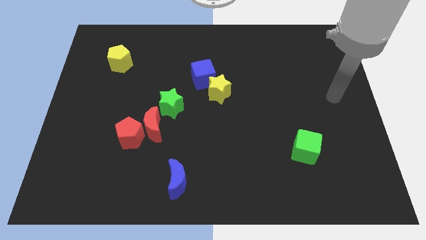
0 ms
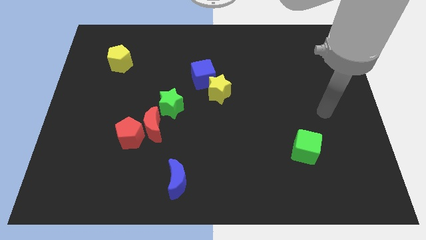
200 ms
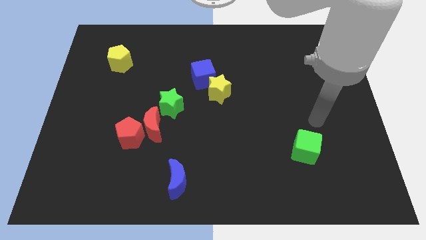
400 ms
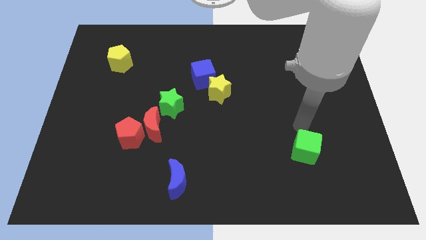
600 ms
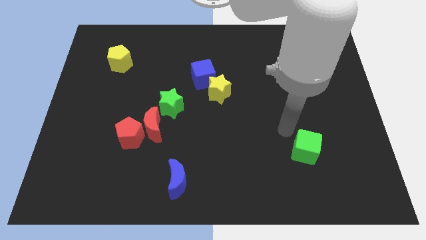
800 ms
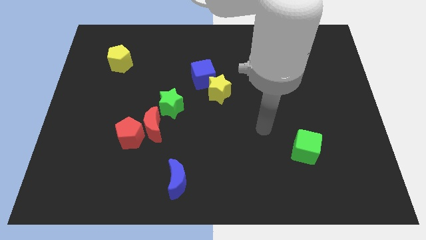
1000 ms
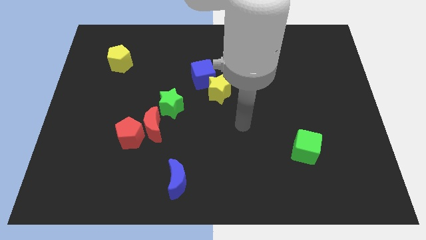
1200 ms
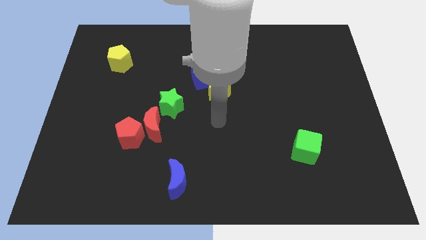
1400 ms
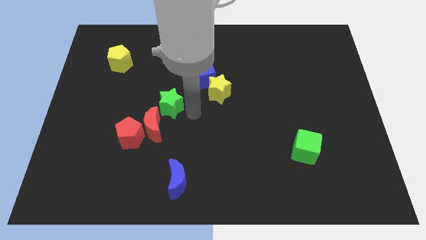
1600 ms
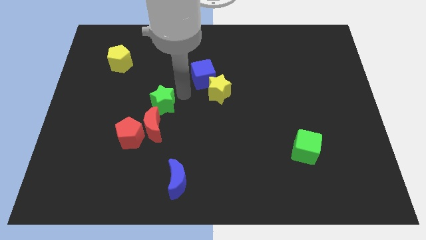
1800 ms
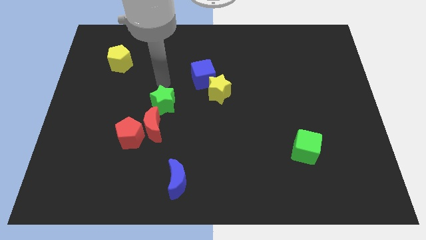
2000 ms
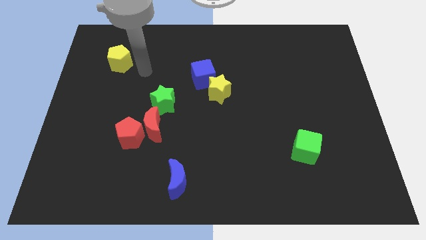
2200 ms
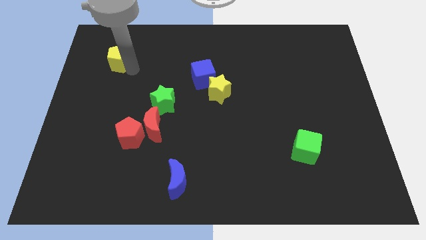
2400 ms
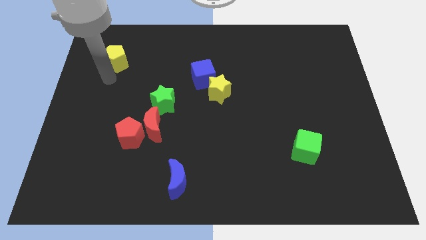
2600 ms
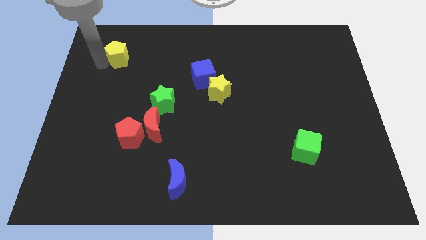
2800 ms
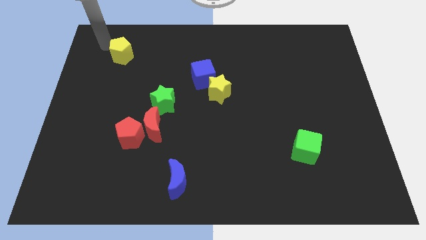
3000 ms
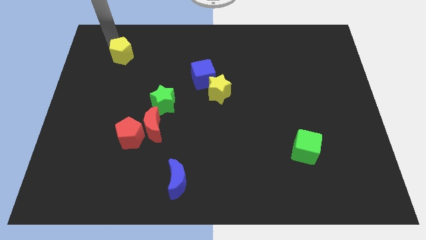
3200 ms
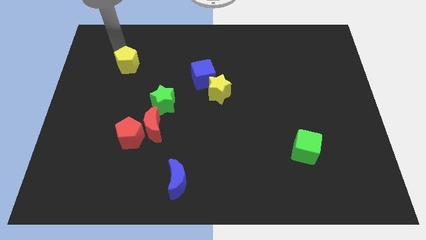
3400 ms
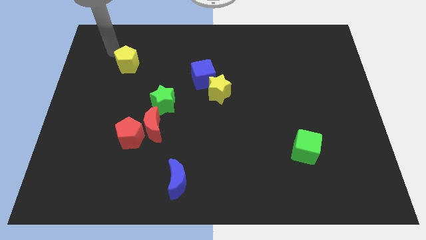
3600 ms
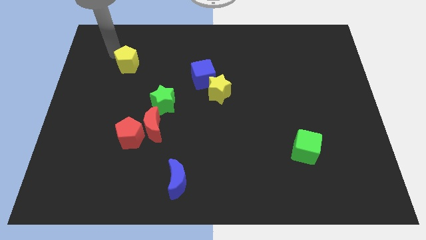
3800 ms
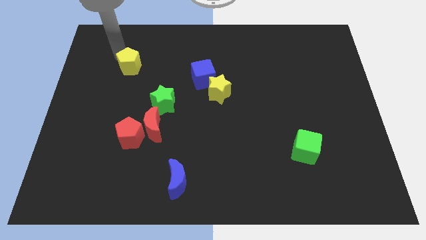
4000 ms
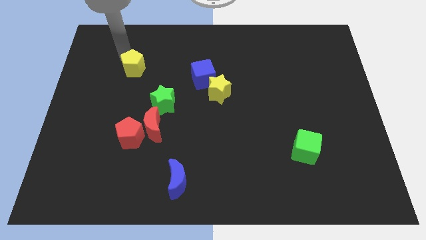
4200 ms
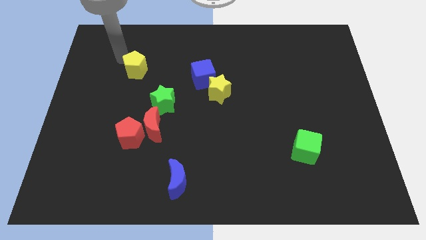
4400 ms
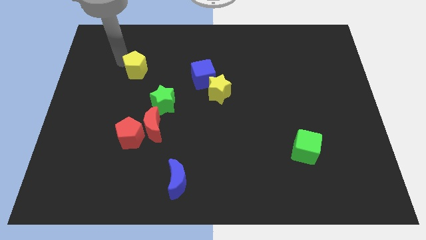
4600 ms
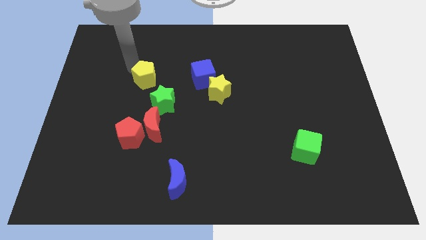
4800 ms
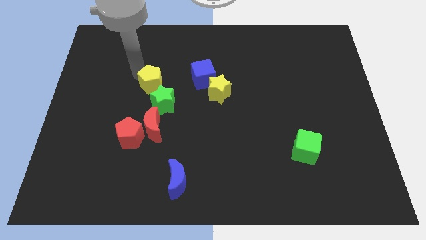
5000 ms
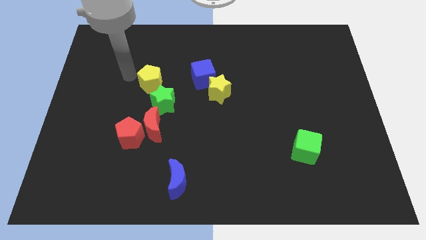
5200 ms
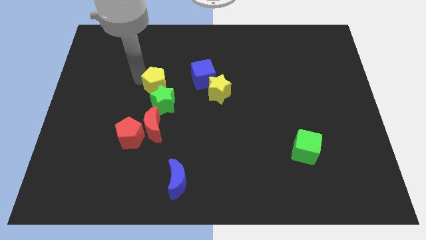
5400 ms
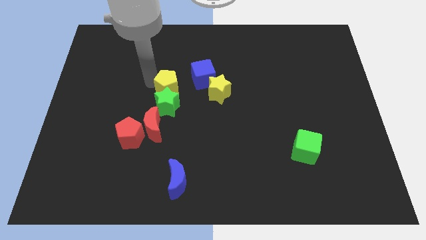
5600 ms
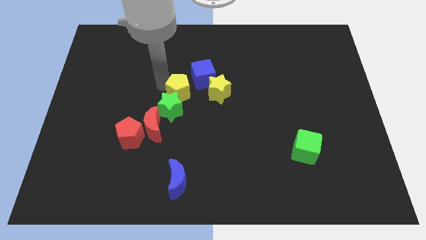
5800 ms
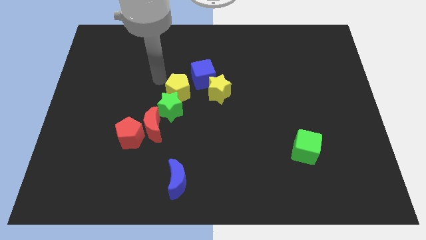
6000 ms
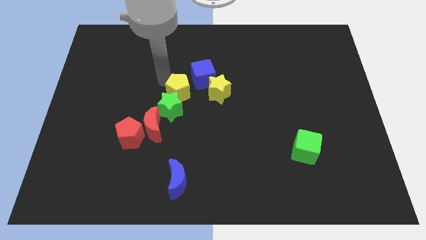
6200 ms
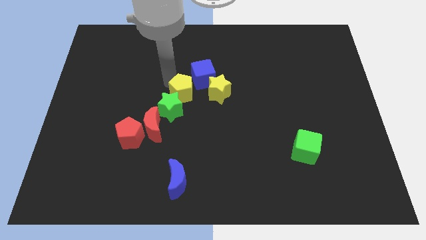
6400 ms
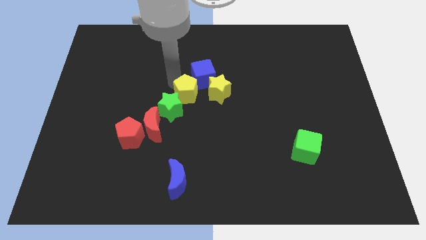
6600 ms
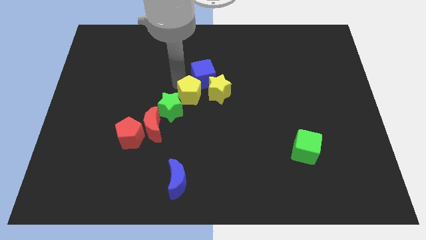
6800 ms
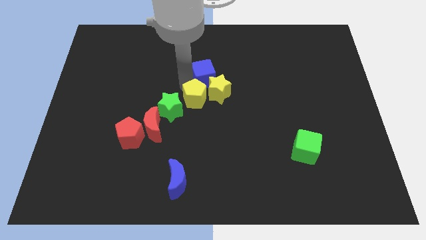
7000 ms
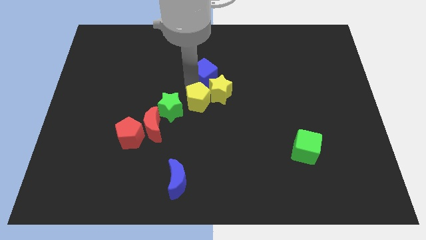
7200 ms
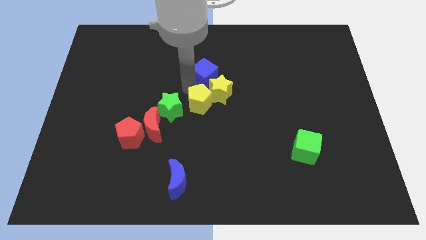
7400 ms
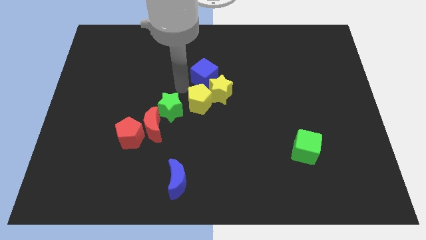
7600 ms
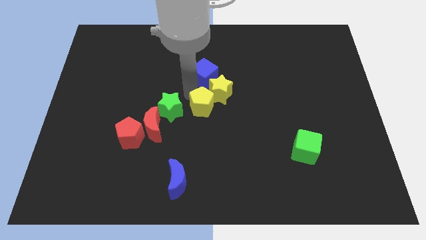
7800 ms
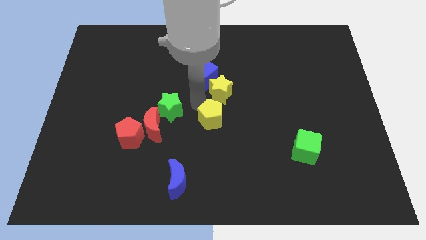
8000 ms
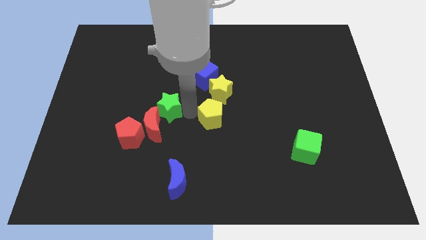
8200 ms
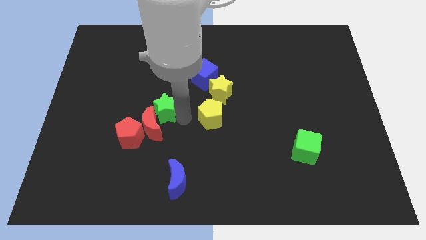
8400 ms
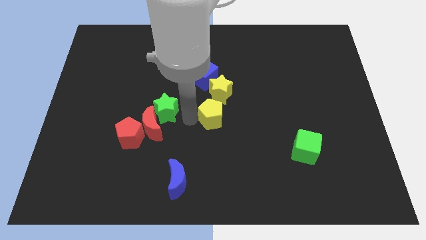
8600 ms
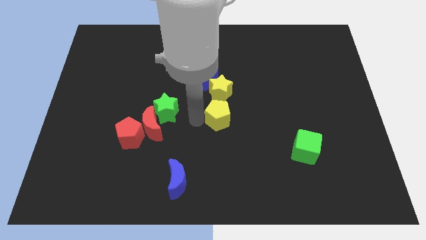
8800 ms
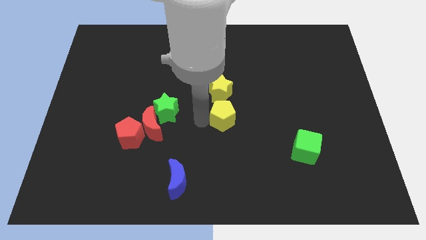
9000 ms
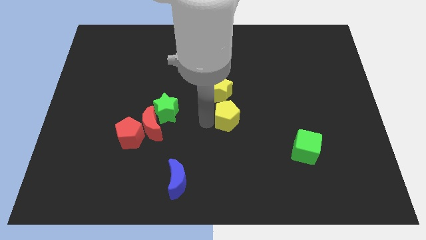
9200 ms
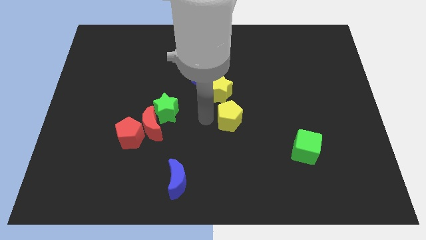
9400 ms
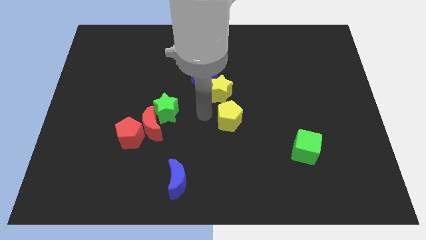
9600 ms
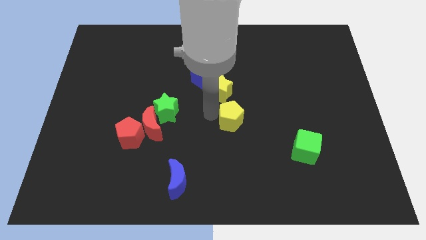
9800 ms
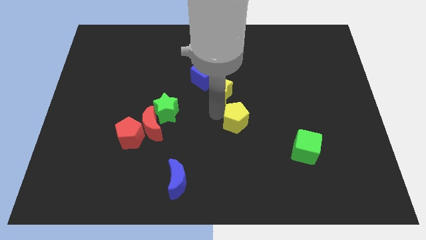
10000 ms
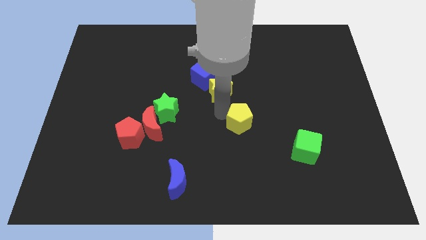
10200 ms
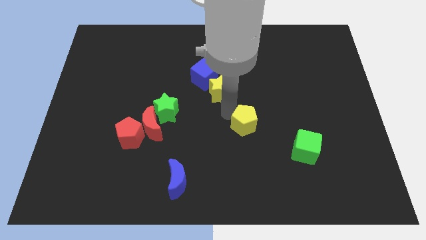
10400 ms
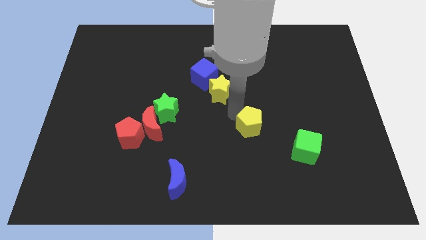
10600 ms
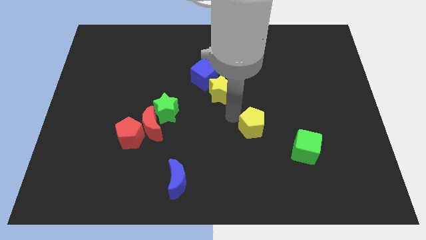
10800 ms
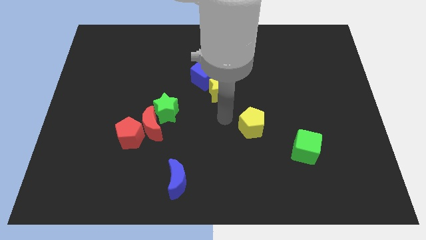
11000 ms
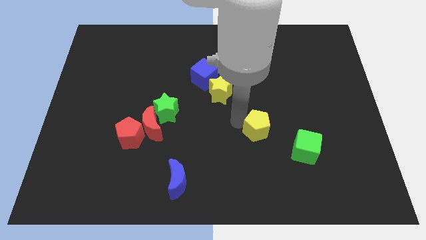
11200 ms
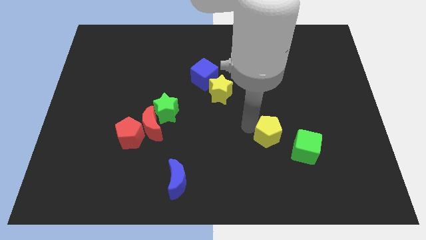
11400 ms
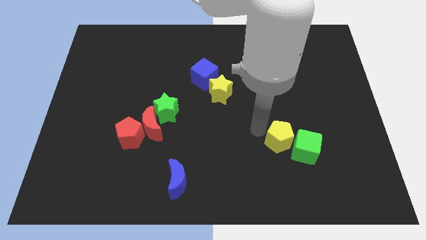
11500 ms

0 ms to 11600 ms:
put the yellow pentagon towards the green cube

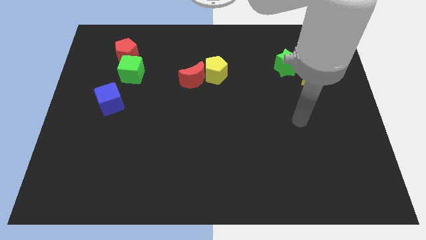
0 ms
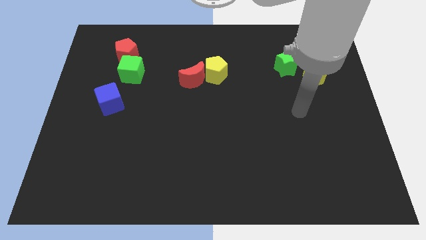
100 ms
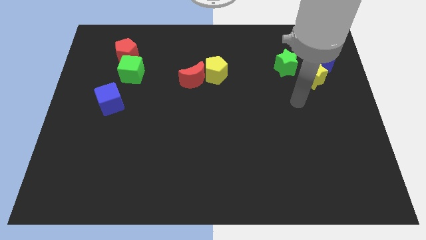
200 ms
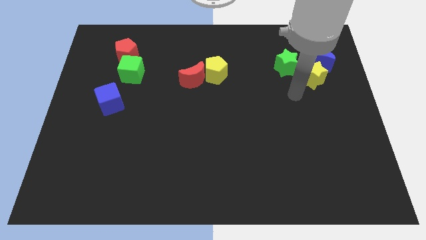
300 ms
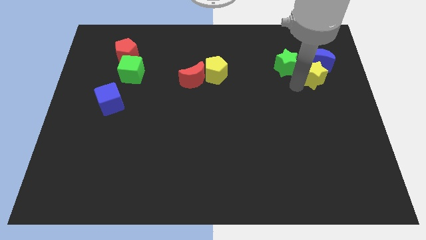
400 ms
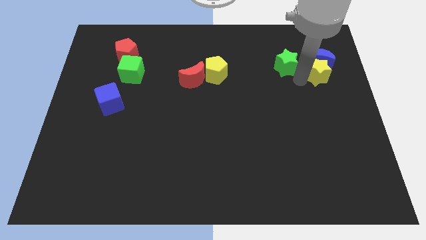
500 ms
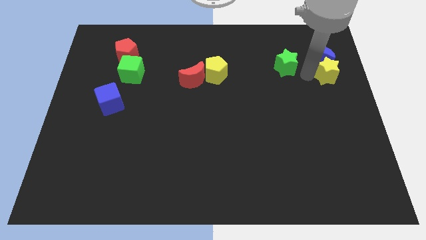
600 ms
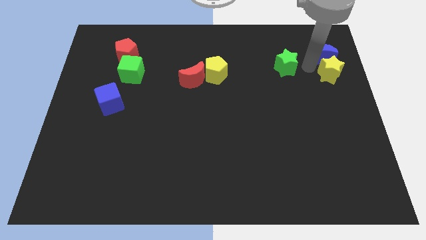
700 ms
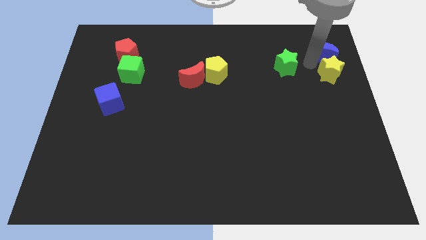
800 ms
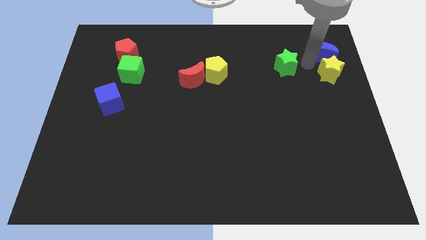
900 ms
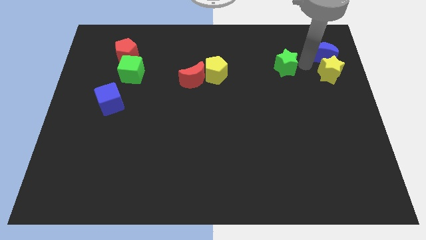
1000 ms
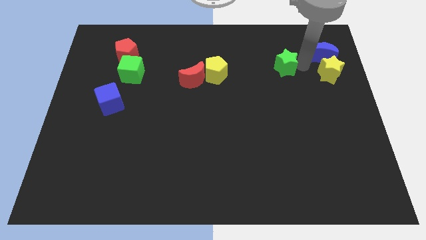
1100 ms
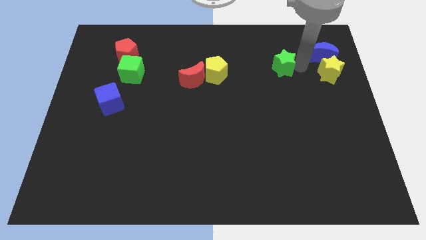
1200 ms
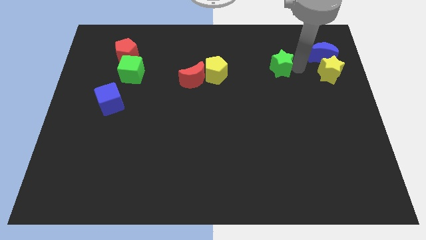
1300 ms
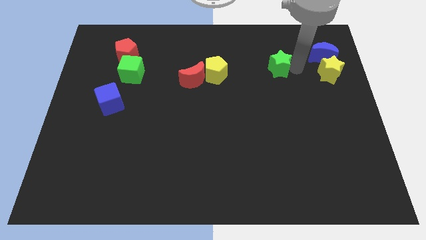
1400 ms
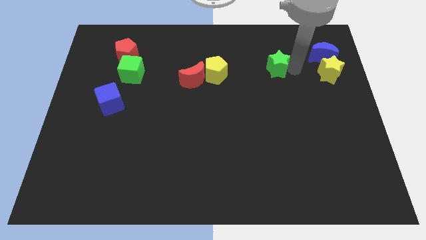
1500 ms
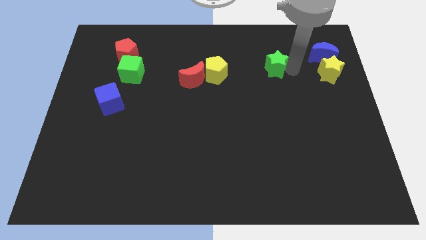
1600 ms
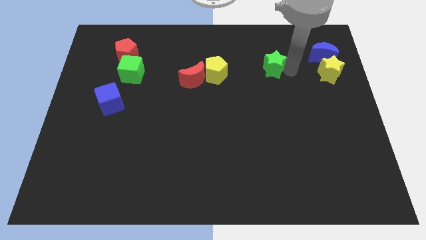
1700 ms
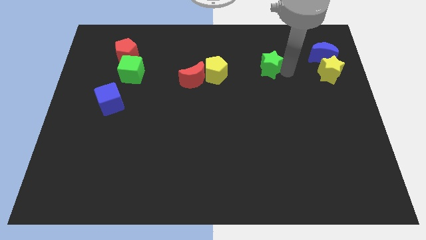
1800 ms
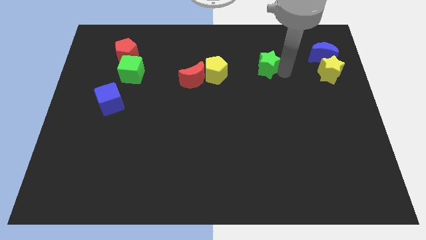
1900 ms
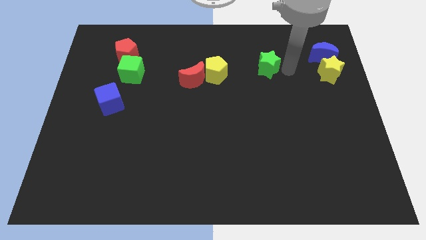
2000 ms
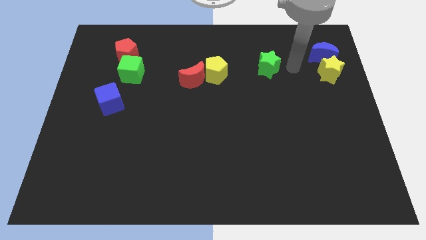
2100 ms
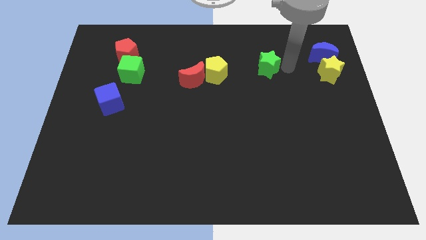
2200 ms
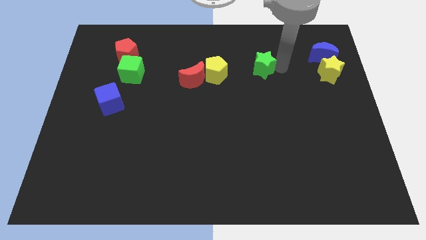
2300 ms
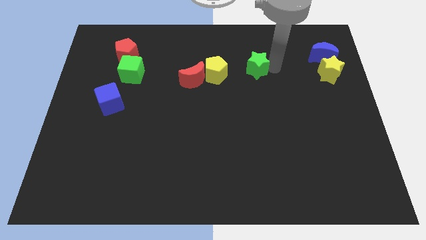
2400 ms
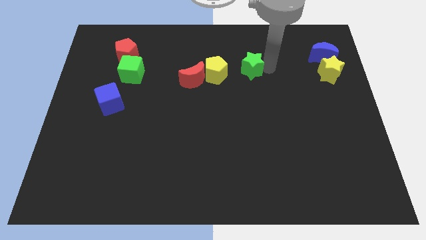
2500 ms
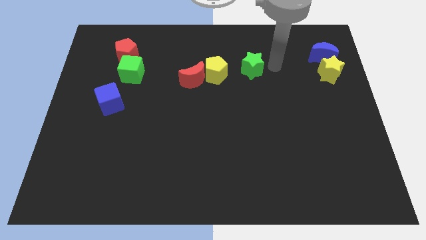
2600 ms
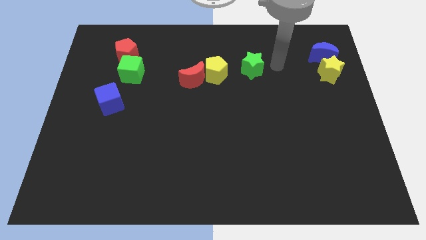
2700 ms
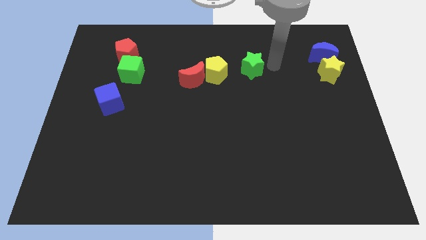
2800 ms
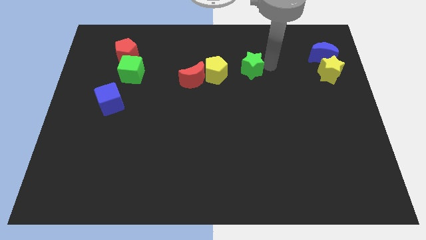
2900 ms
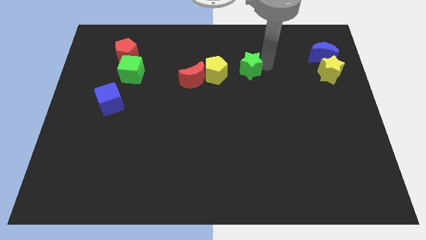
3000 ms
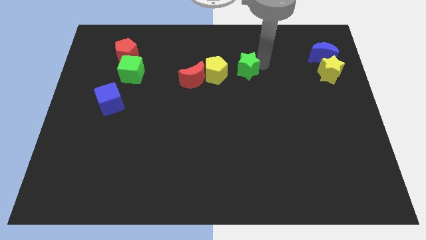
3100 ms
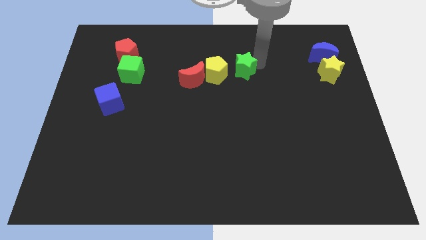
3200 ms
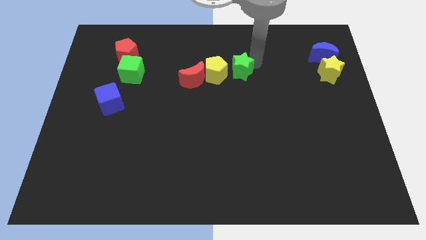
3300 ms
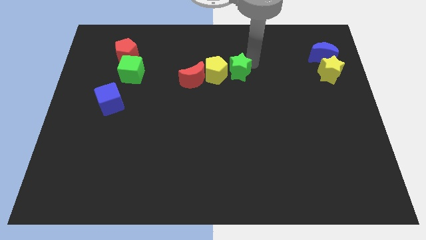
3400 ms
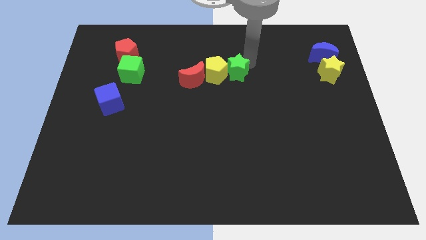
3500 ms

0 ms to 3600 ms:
put the green star to the yellow pentagon
